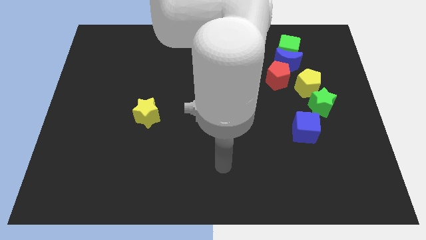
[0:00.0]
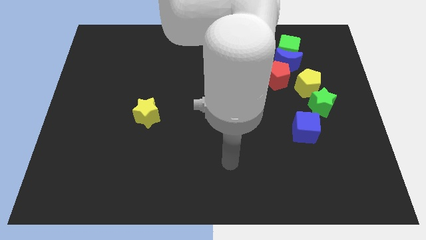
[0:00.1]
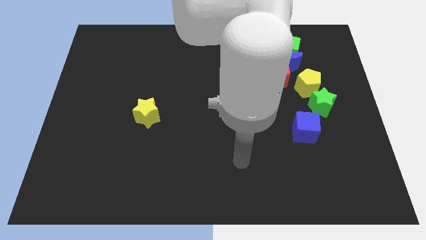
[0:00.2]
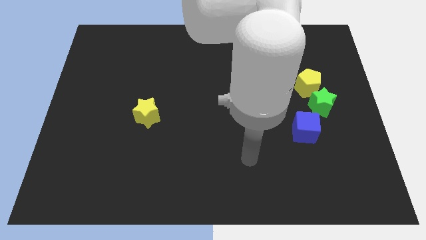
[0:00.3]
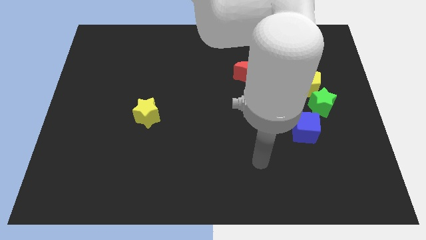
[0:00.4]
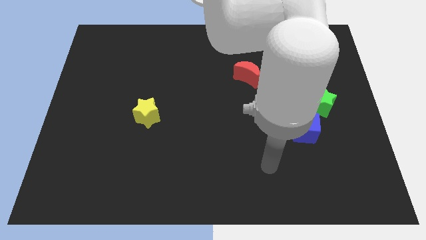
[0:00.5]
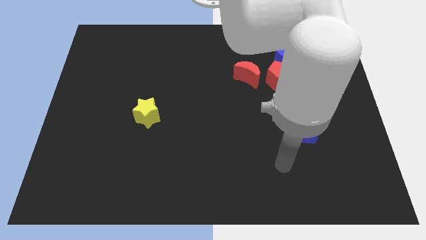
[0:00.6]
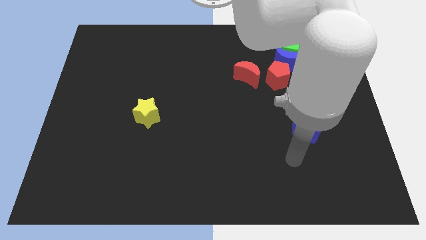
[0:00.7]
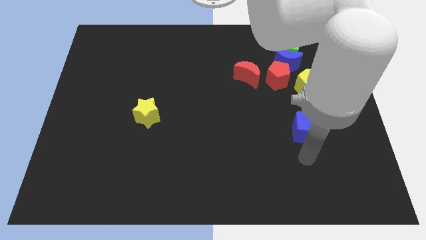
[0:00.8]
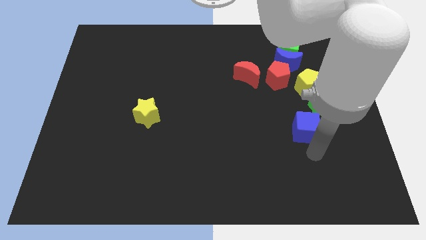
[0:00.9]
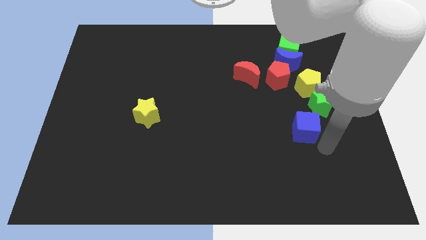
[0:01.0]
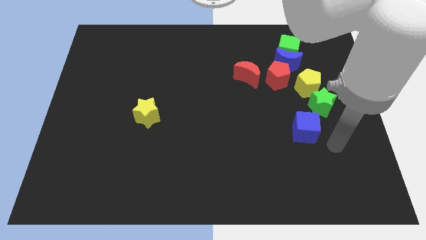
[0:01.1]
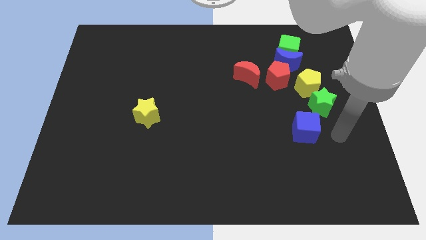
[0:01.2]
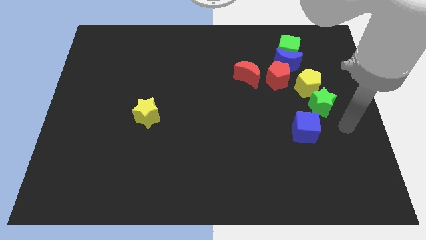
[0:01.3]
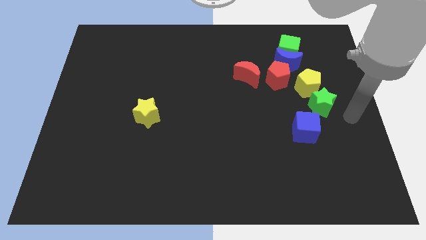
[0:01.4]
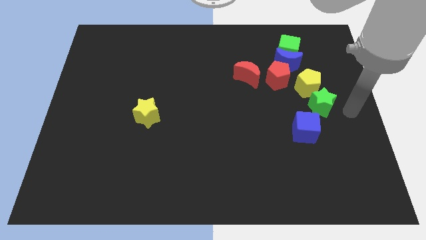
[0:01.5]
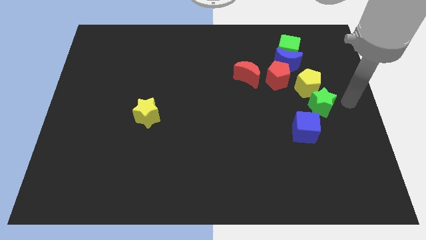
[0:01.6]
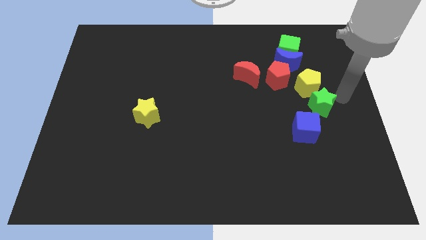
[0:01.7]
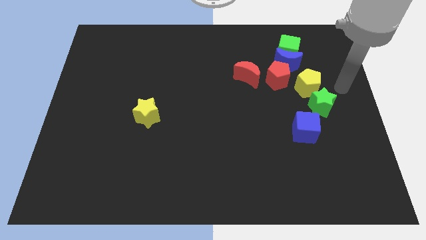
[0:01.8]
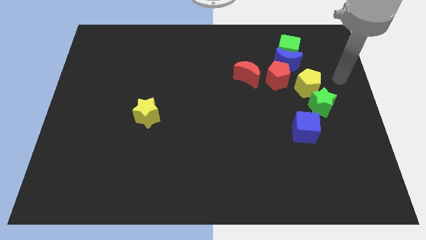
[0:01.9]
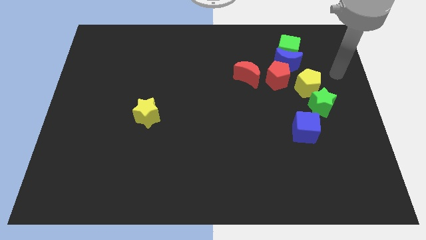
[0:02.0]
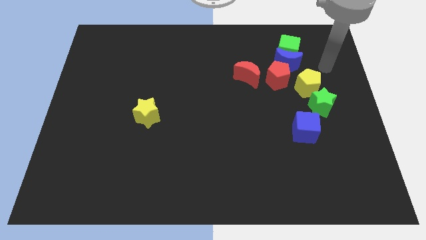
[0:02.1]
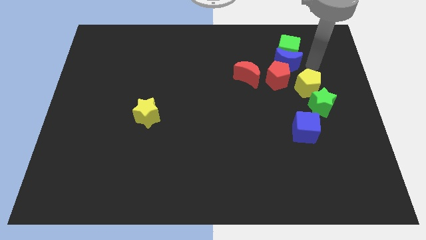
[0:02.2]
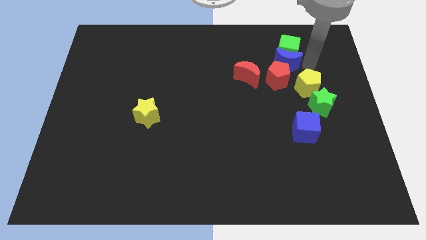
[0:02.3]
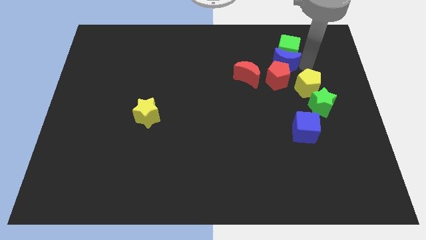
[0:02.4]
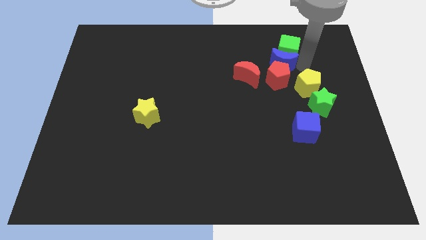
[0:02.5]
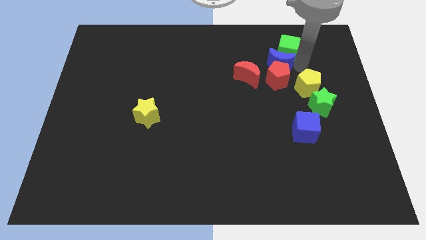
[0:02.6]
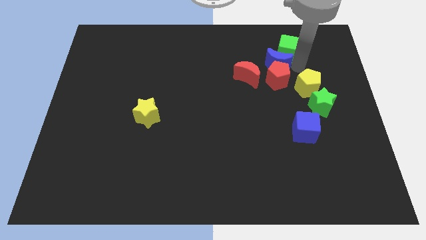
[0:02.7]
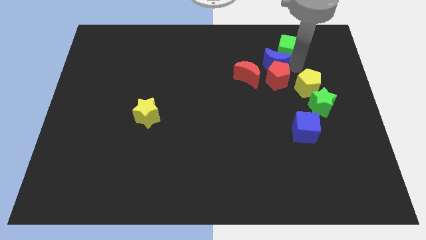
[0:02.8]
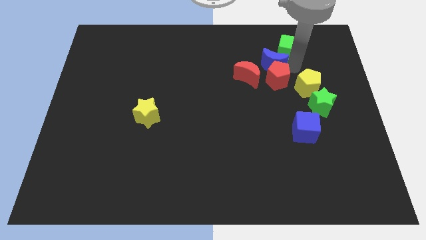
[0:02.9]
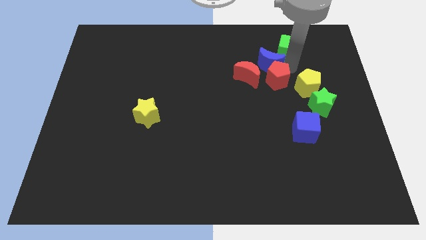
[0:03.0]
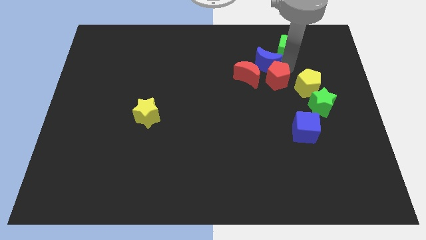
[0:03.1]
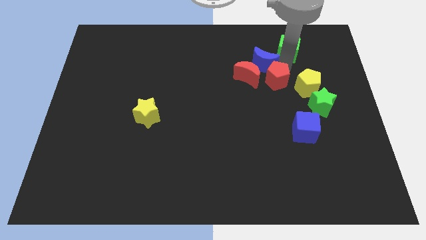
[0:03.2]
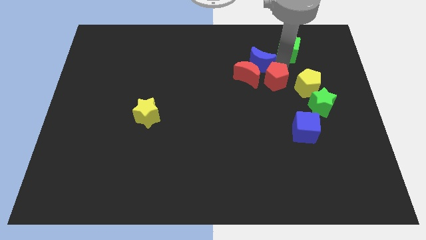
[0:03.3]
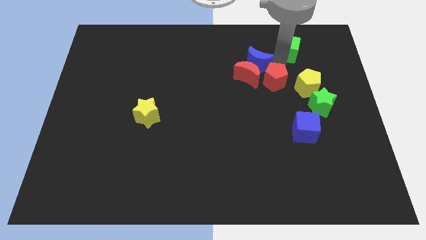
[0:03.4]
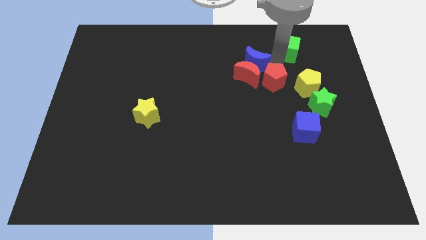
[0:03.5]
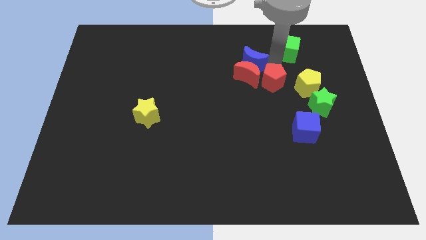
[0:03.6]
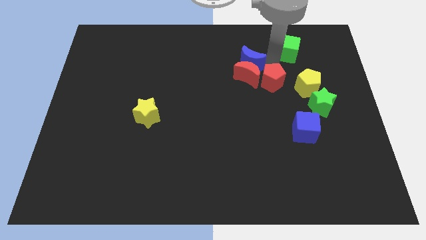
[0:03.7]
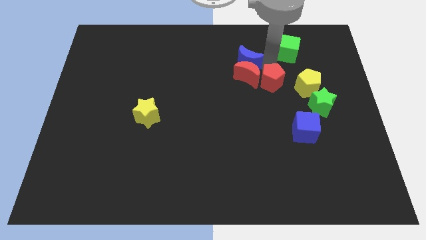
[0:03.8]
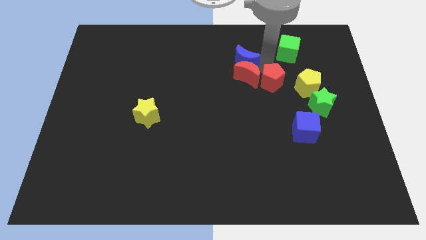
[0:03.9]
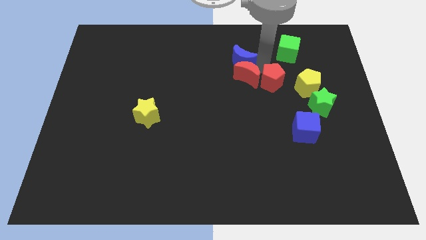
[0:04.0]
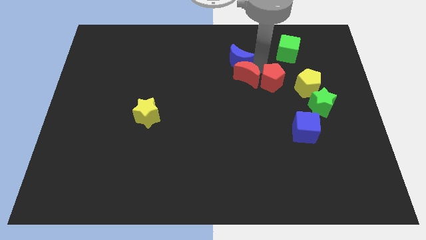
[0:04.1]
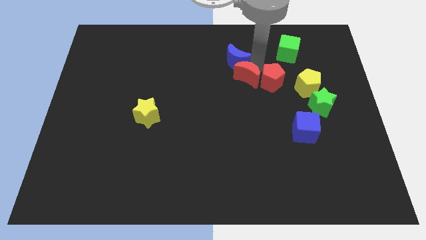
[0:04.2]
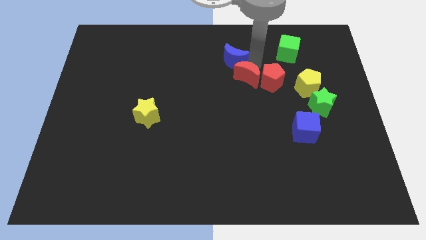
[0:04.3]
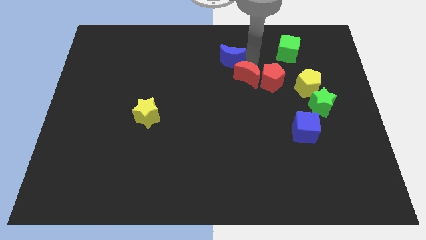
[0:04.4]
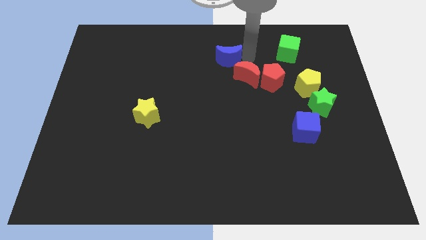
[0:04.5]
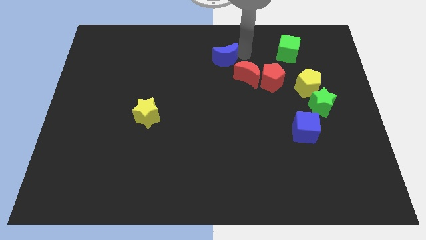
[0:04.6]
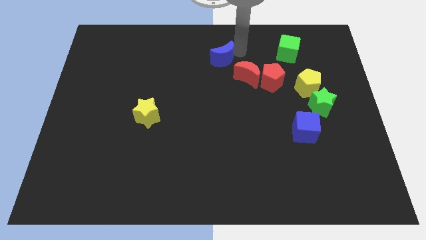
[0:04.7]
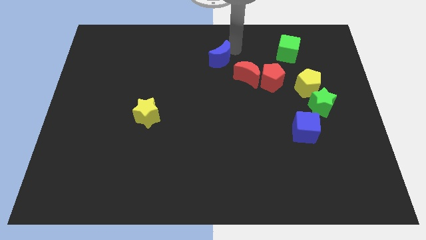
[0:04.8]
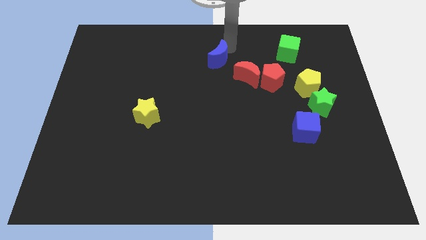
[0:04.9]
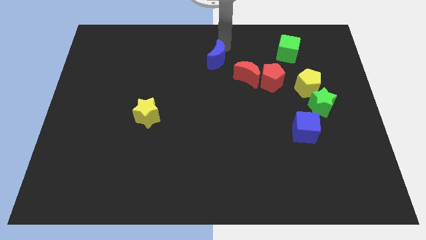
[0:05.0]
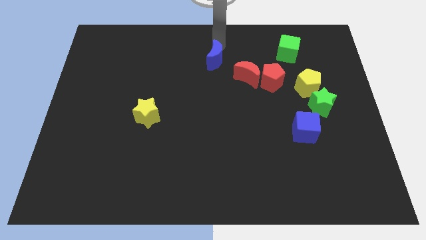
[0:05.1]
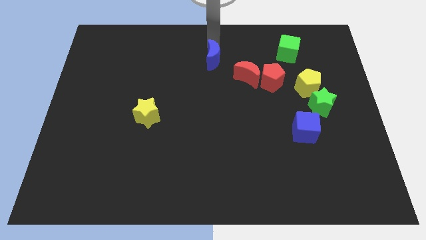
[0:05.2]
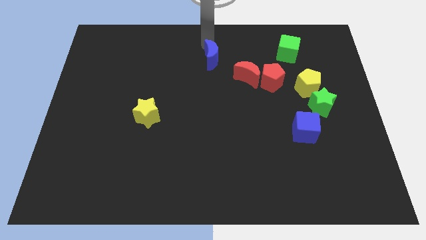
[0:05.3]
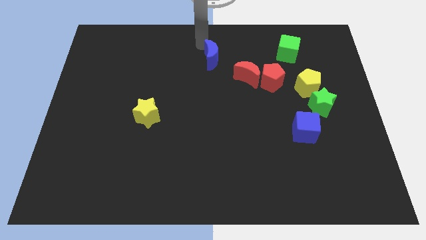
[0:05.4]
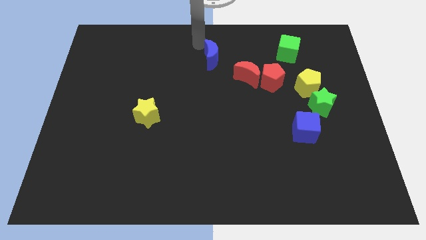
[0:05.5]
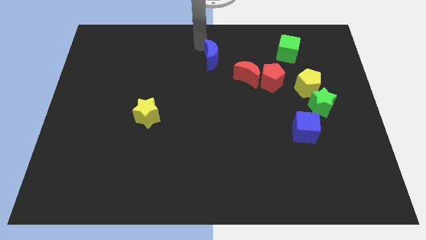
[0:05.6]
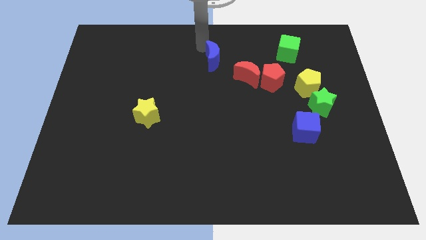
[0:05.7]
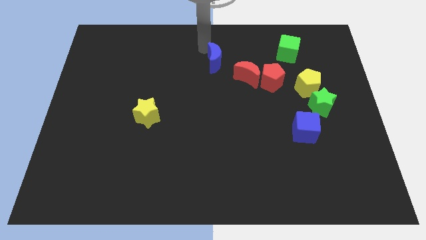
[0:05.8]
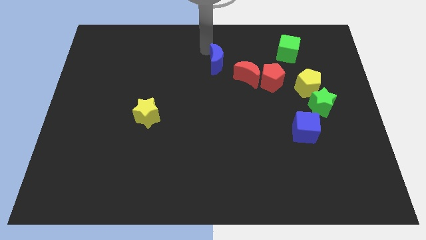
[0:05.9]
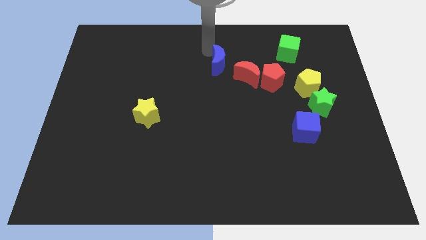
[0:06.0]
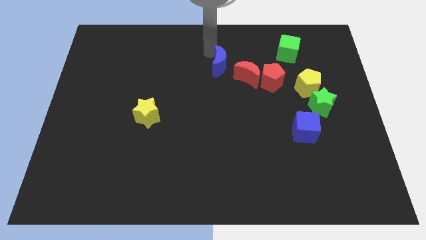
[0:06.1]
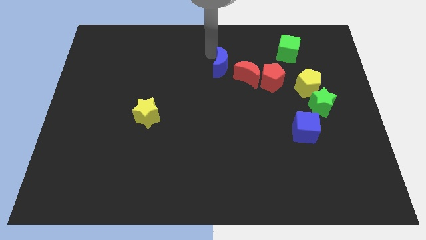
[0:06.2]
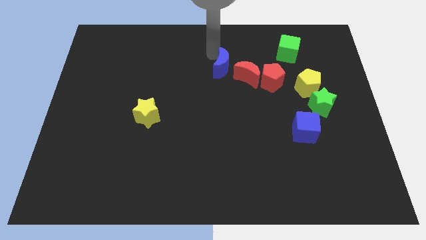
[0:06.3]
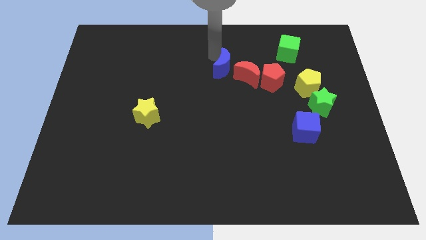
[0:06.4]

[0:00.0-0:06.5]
slide the blue moon a bit down and then left

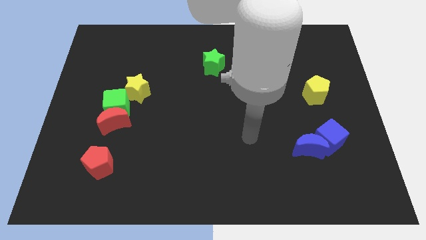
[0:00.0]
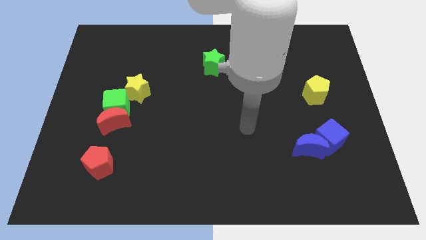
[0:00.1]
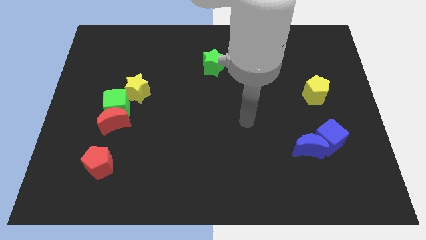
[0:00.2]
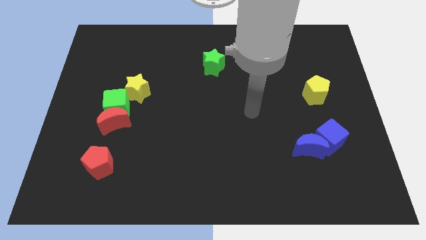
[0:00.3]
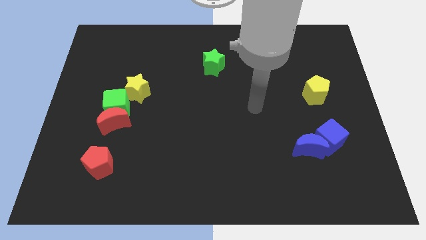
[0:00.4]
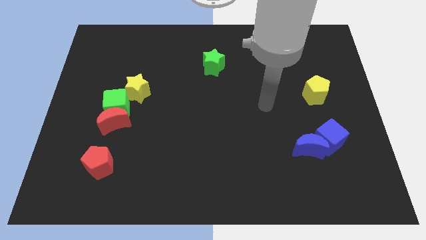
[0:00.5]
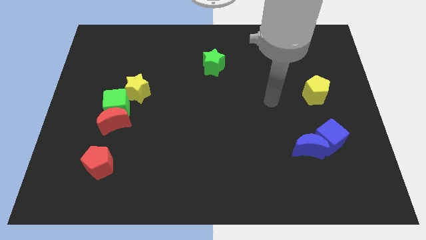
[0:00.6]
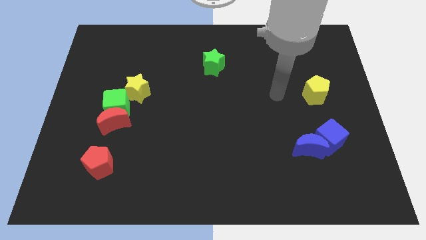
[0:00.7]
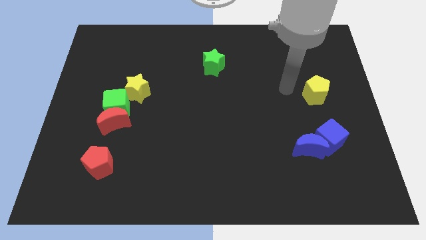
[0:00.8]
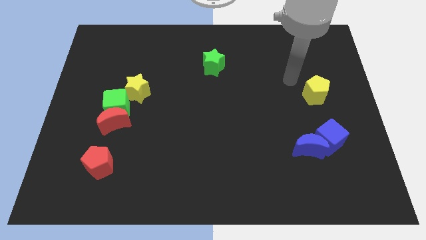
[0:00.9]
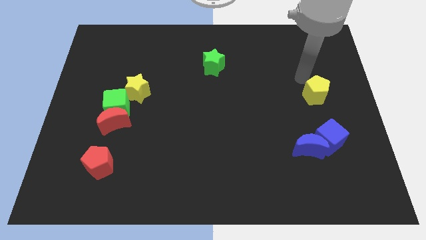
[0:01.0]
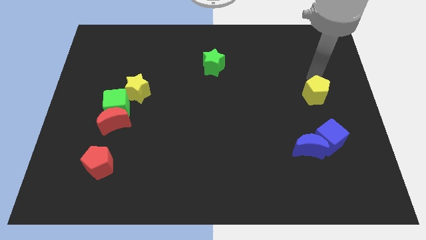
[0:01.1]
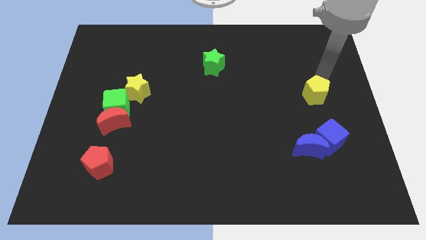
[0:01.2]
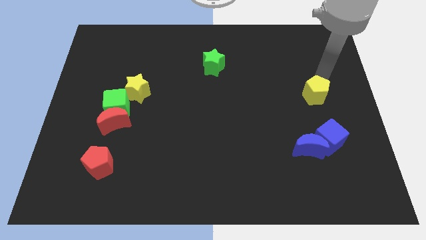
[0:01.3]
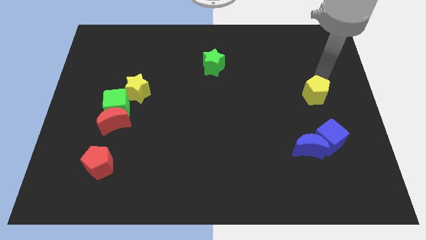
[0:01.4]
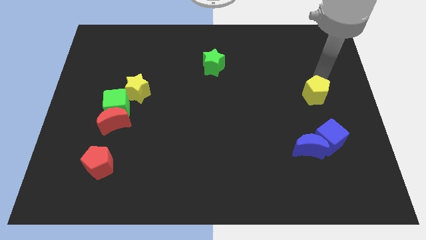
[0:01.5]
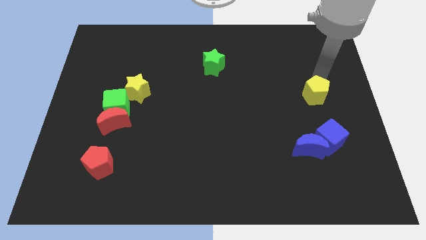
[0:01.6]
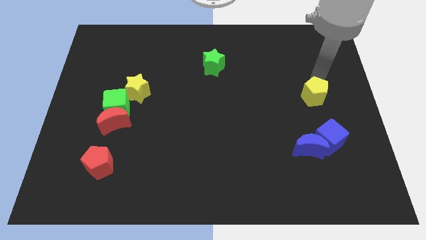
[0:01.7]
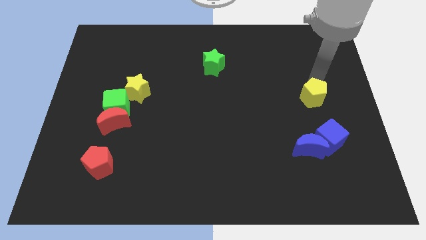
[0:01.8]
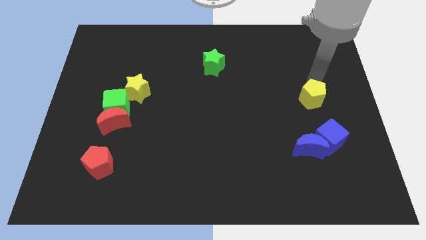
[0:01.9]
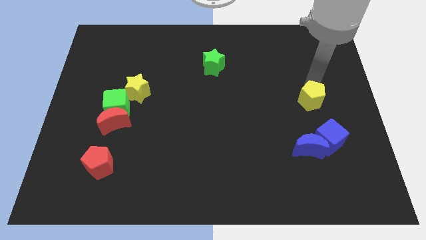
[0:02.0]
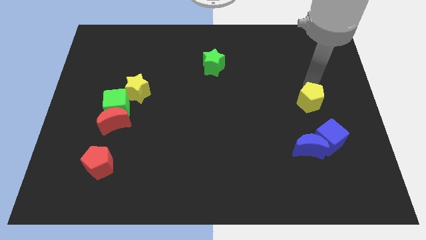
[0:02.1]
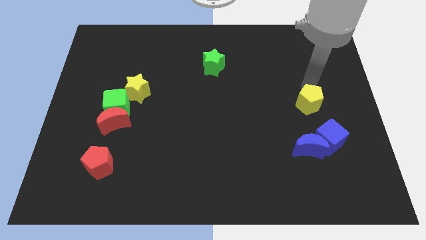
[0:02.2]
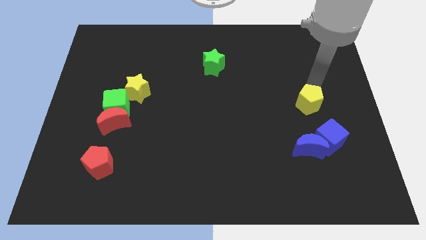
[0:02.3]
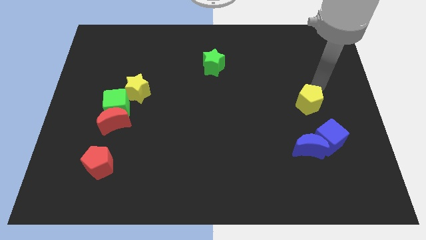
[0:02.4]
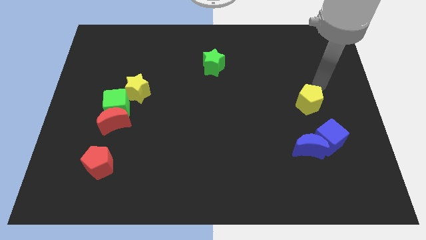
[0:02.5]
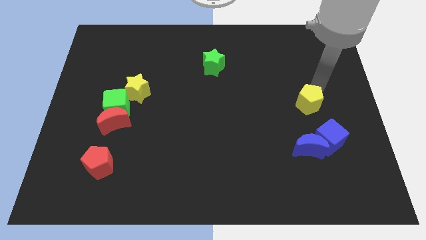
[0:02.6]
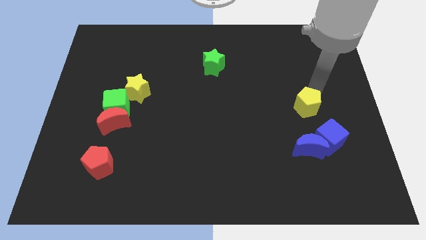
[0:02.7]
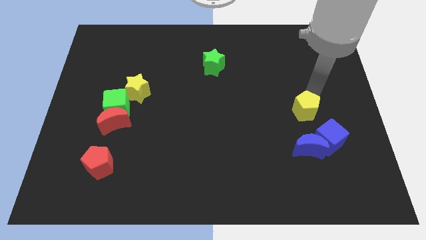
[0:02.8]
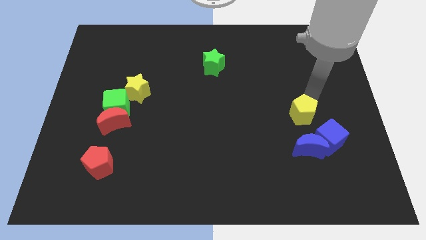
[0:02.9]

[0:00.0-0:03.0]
slightly push the yellow pentagon downwards and then left
